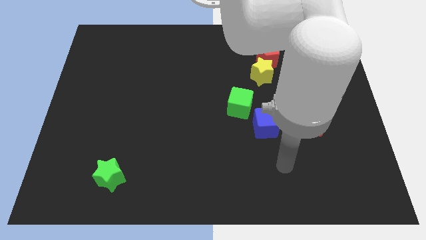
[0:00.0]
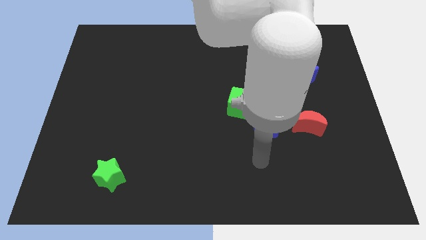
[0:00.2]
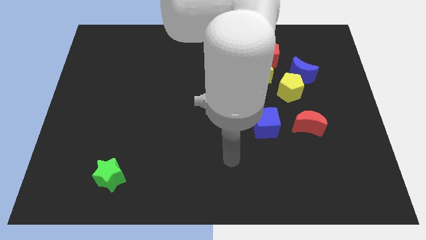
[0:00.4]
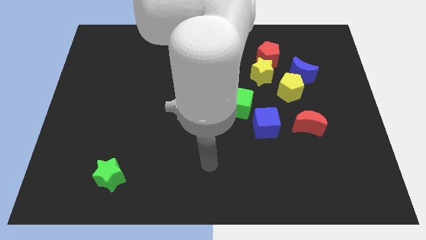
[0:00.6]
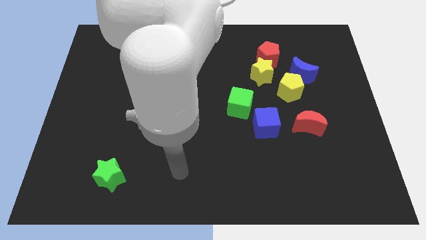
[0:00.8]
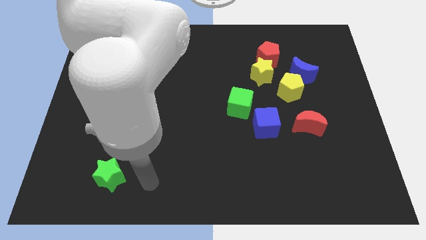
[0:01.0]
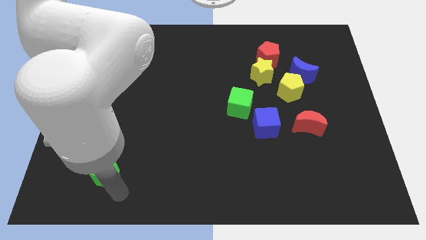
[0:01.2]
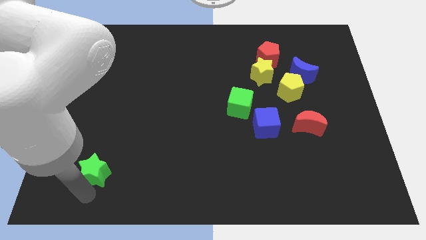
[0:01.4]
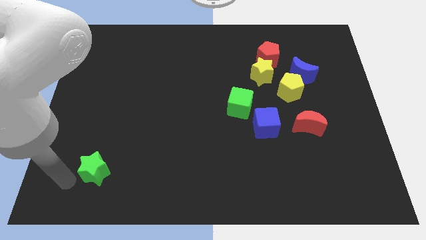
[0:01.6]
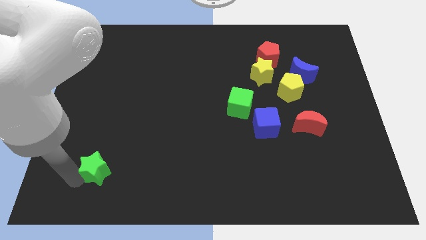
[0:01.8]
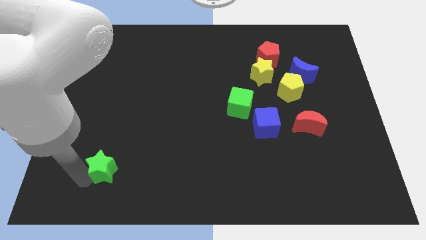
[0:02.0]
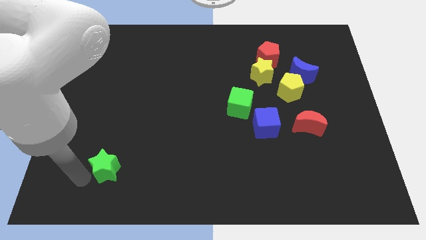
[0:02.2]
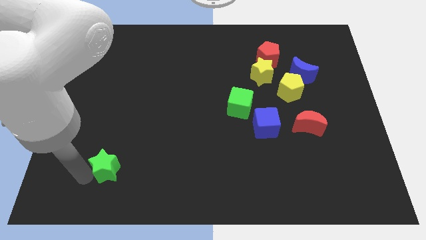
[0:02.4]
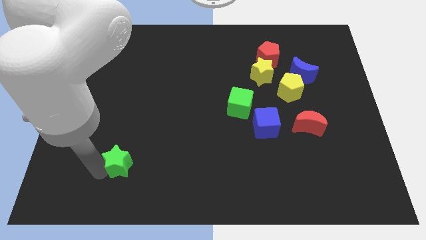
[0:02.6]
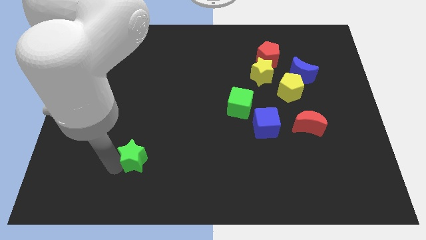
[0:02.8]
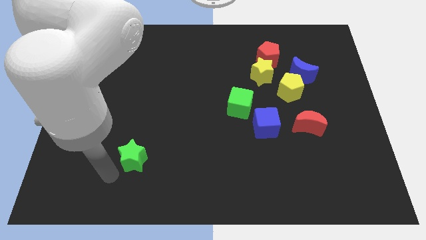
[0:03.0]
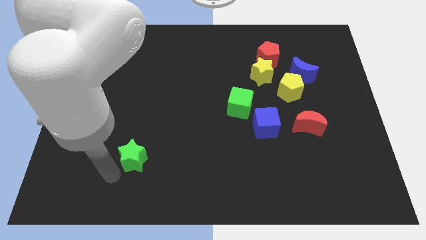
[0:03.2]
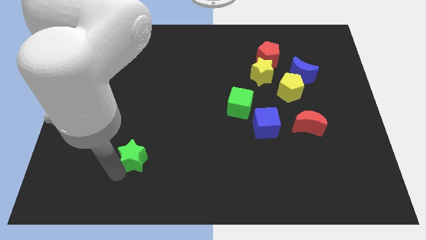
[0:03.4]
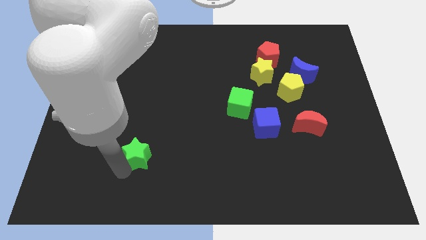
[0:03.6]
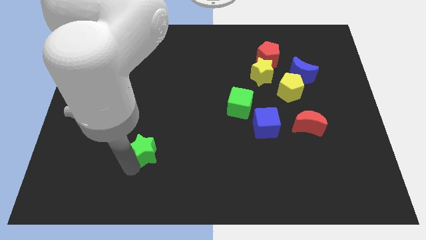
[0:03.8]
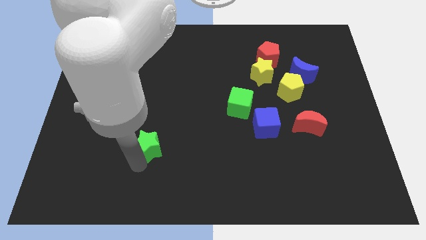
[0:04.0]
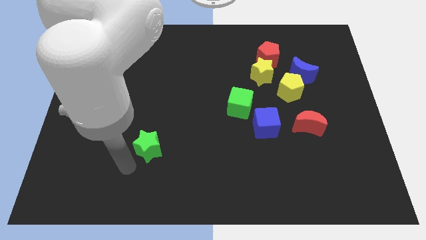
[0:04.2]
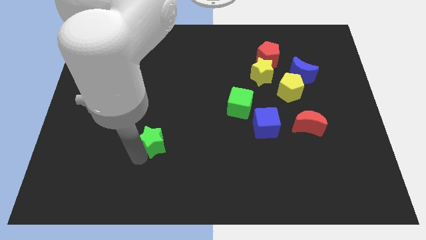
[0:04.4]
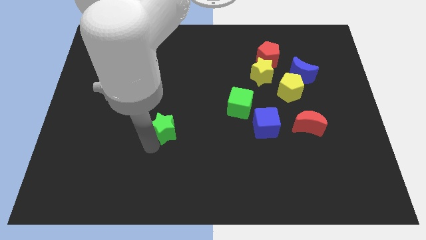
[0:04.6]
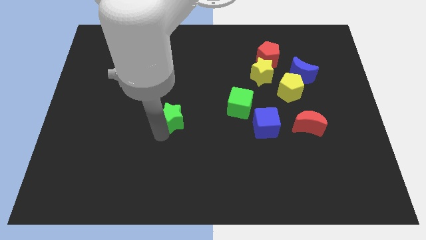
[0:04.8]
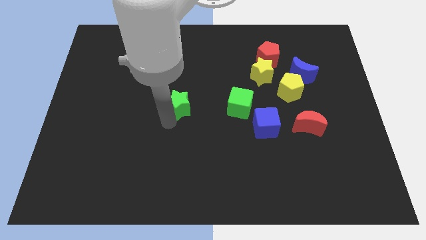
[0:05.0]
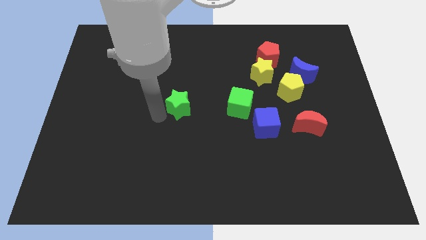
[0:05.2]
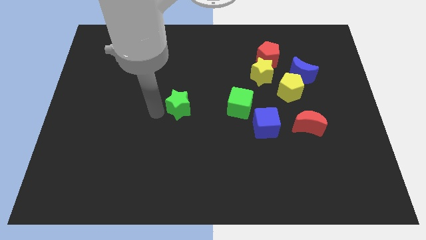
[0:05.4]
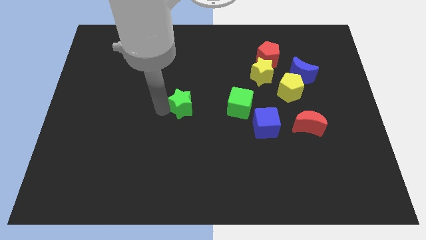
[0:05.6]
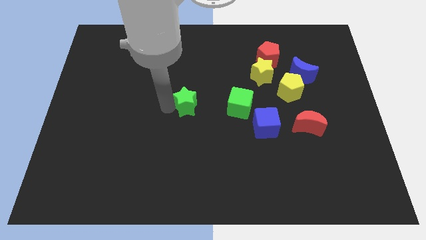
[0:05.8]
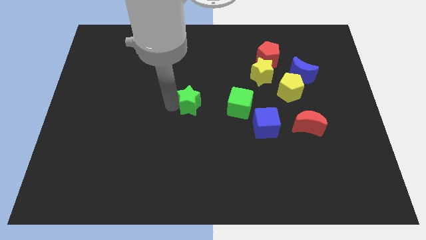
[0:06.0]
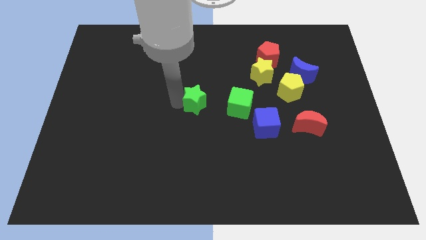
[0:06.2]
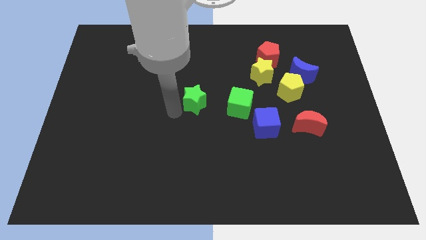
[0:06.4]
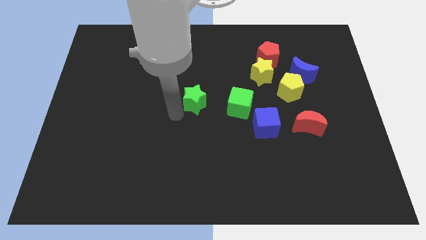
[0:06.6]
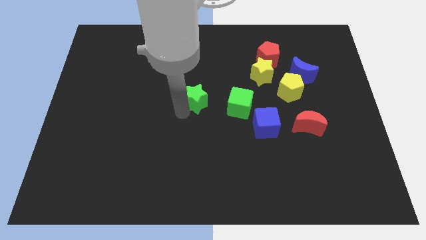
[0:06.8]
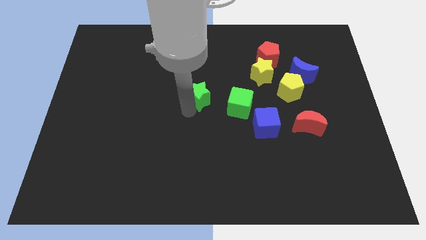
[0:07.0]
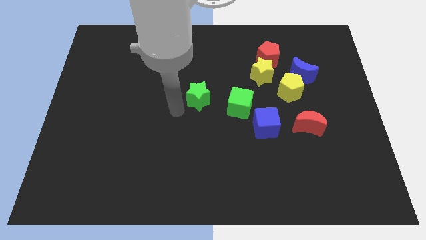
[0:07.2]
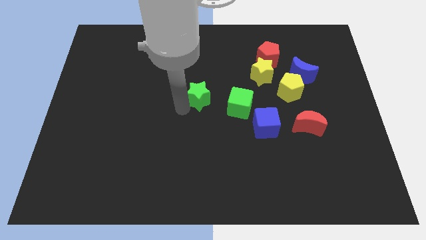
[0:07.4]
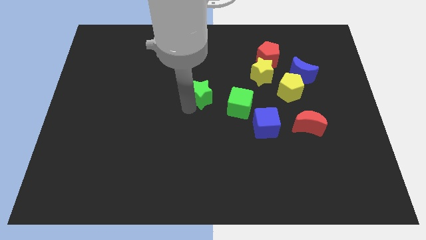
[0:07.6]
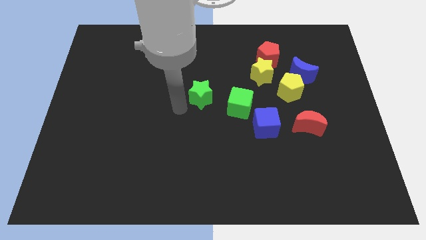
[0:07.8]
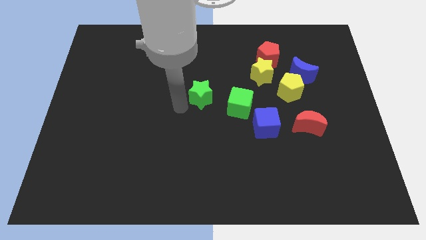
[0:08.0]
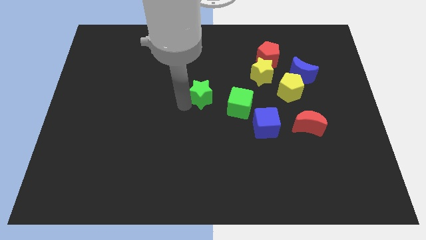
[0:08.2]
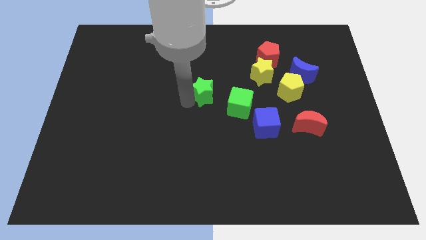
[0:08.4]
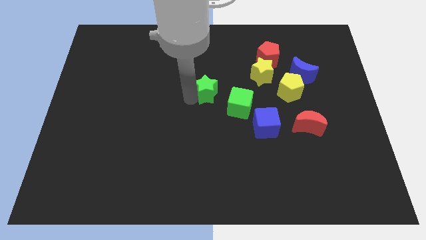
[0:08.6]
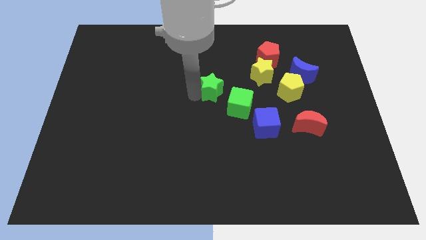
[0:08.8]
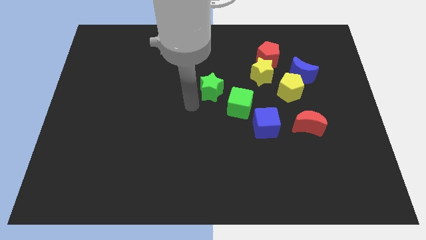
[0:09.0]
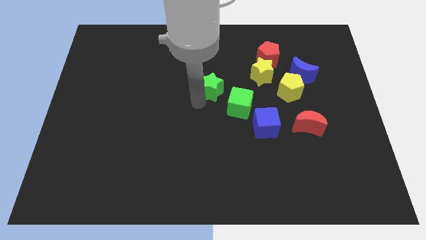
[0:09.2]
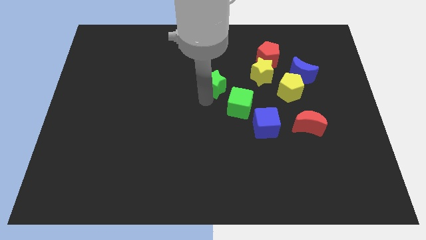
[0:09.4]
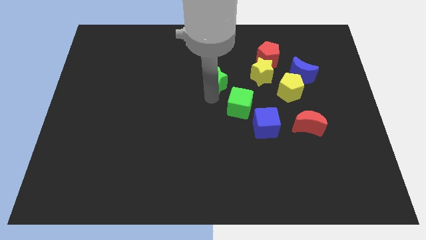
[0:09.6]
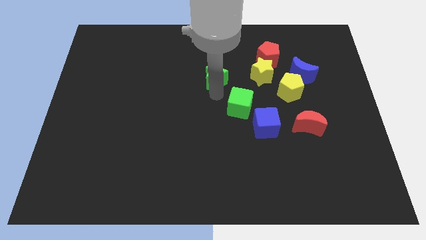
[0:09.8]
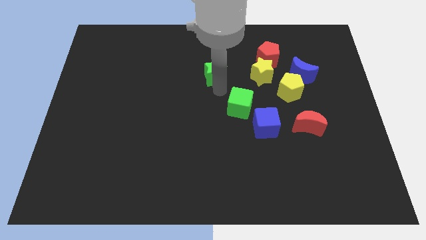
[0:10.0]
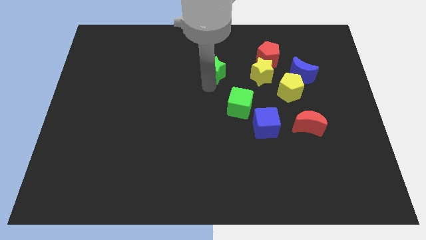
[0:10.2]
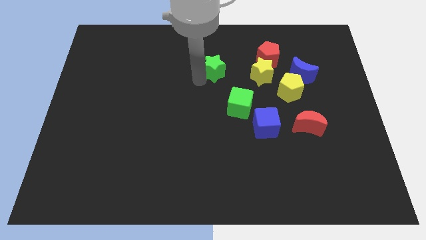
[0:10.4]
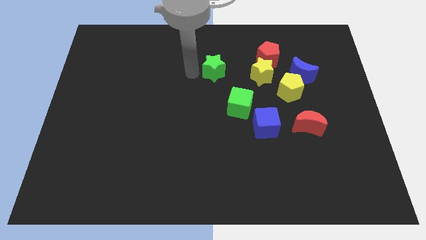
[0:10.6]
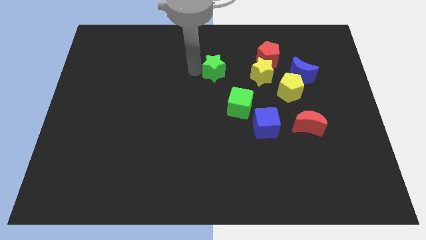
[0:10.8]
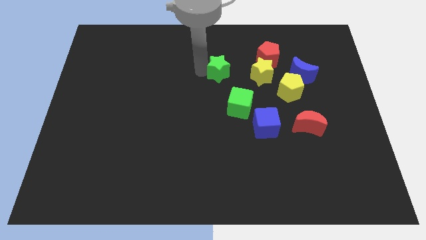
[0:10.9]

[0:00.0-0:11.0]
move the green star above the green cube

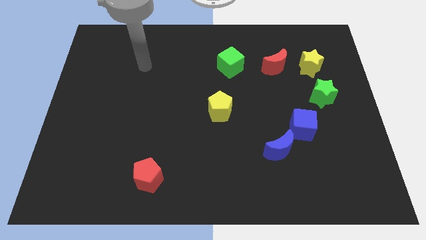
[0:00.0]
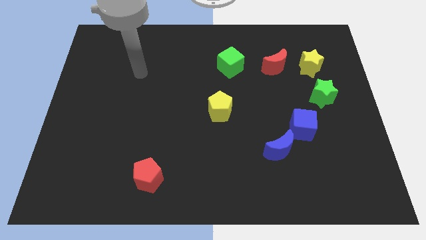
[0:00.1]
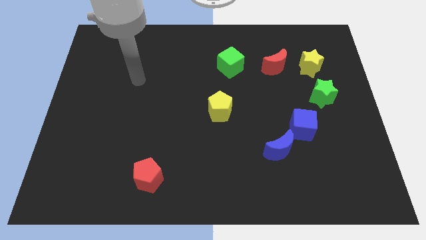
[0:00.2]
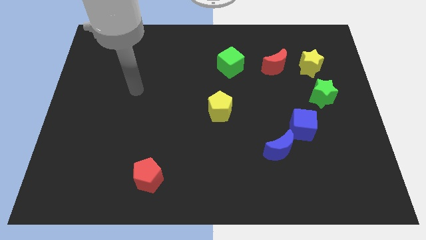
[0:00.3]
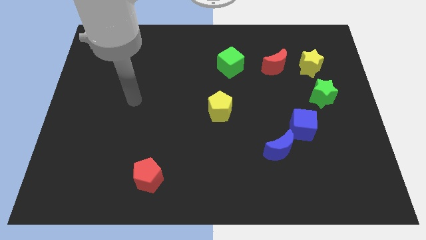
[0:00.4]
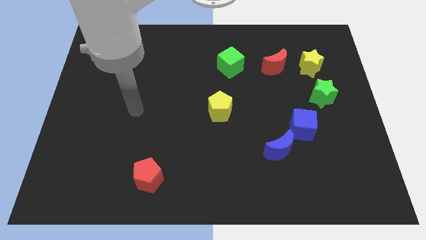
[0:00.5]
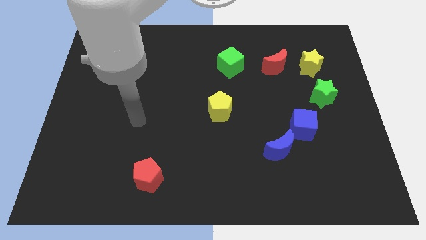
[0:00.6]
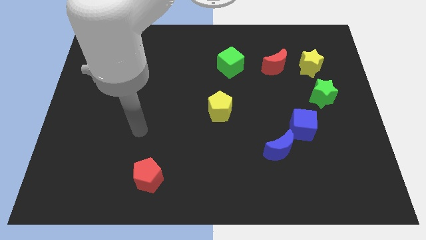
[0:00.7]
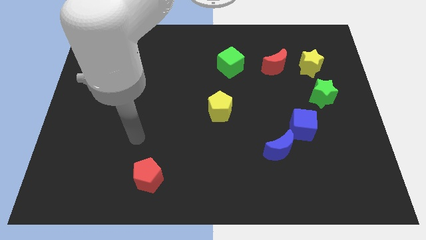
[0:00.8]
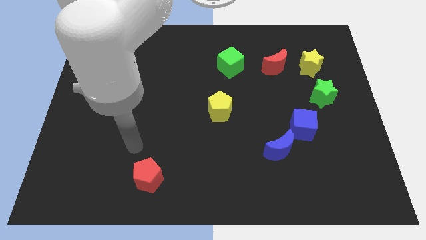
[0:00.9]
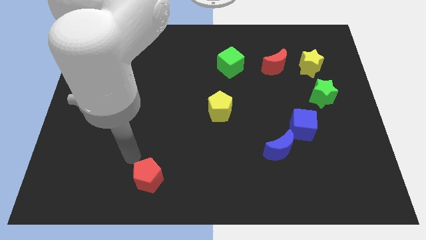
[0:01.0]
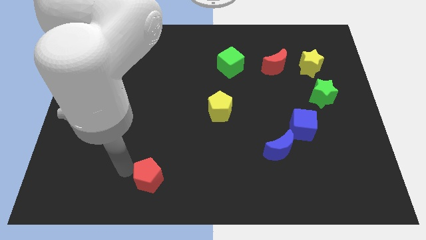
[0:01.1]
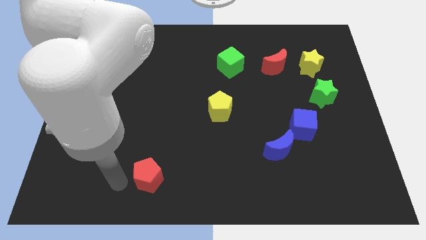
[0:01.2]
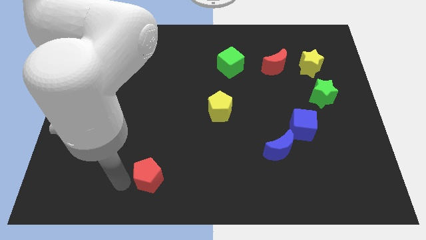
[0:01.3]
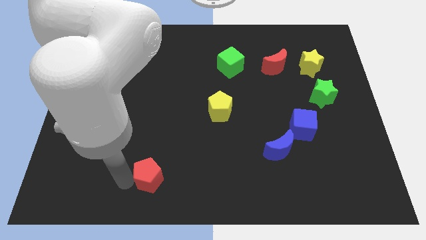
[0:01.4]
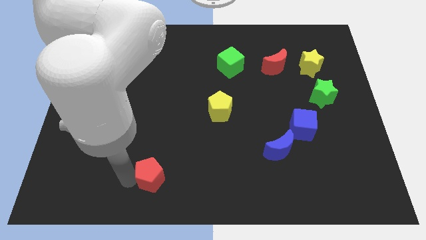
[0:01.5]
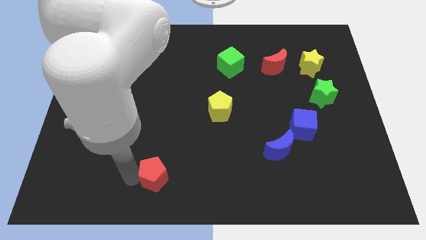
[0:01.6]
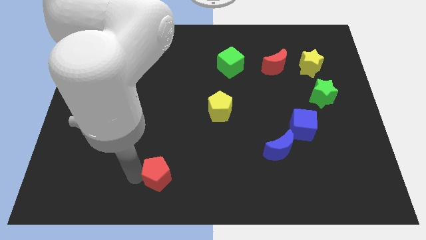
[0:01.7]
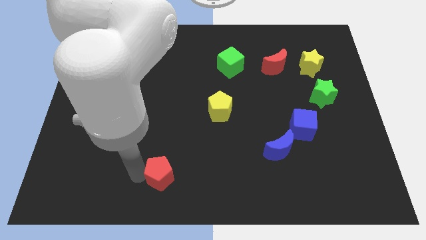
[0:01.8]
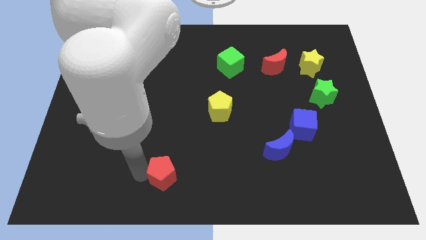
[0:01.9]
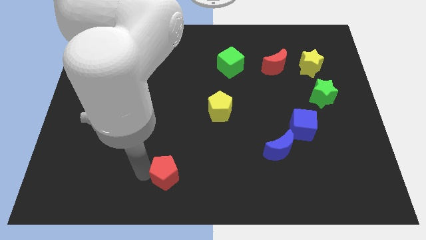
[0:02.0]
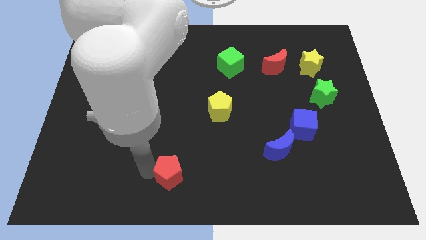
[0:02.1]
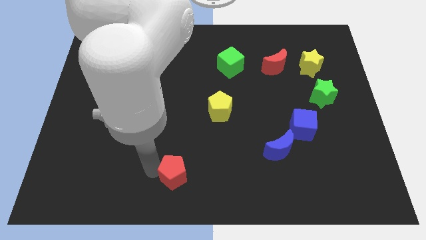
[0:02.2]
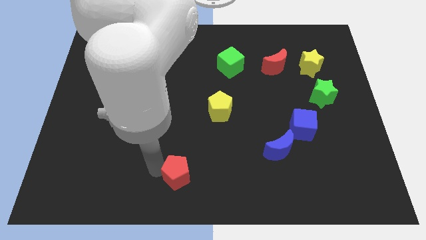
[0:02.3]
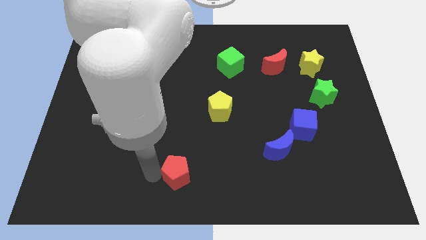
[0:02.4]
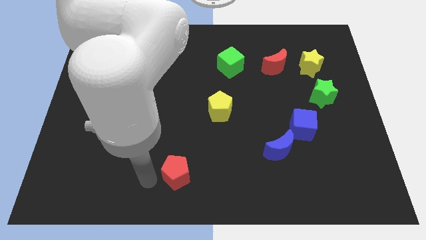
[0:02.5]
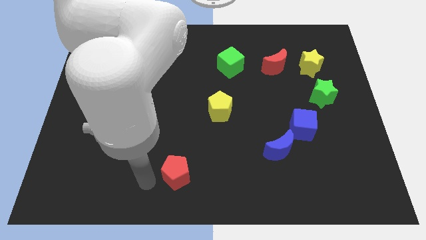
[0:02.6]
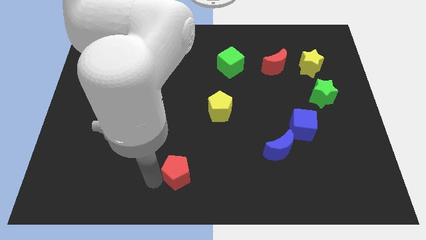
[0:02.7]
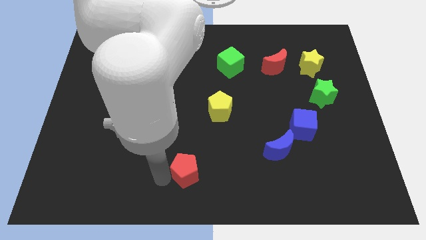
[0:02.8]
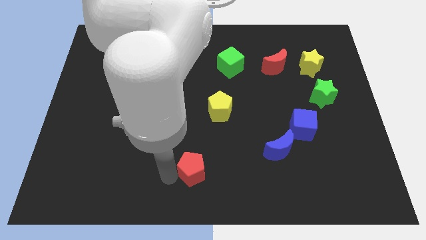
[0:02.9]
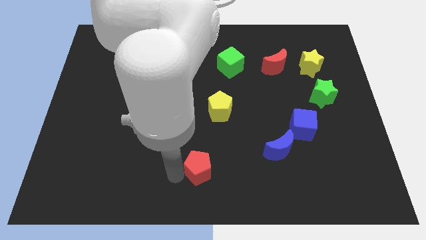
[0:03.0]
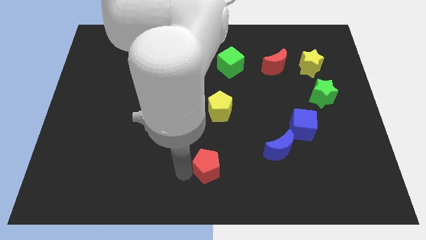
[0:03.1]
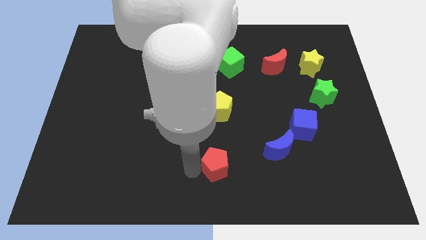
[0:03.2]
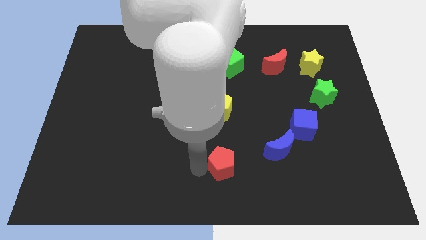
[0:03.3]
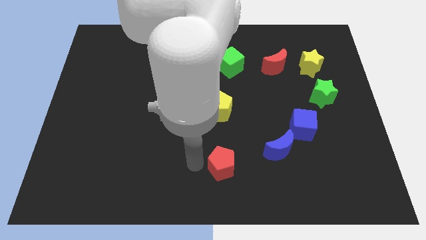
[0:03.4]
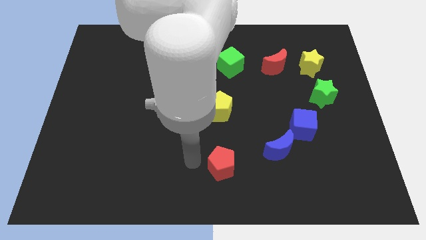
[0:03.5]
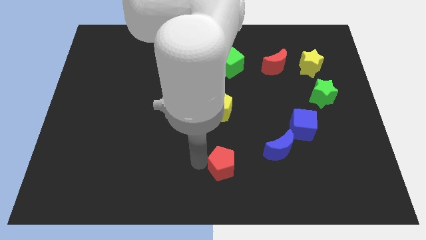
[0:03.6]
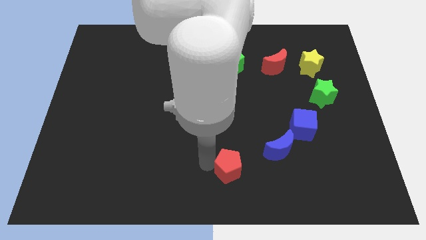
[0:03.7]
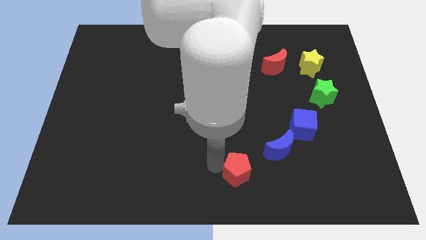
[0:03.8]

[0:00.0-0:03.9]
put the red pentagon to the bottom left of the blue moon
